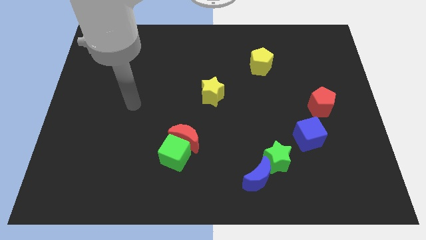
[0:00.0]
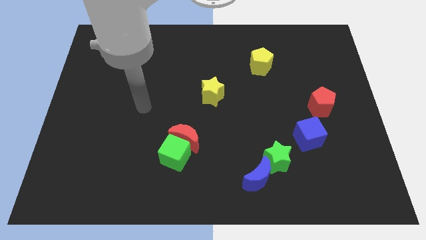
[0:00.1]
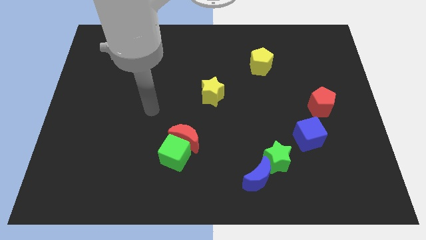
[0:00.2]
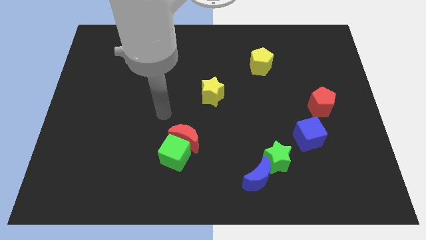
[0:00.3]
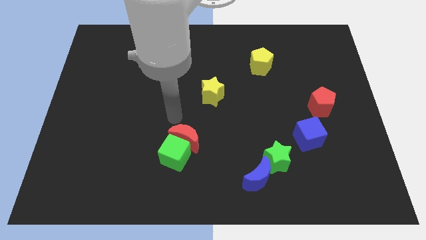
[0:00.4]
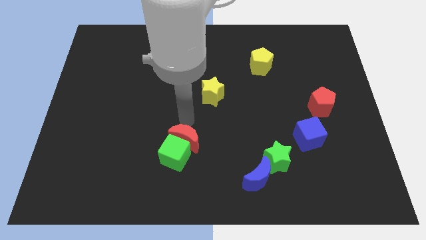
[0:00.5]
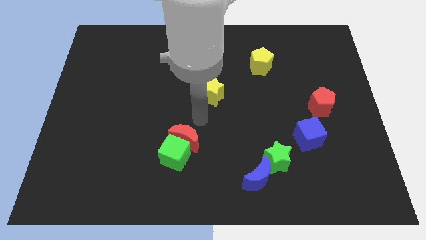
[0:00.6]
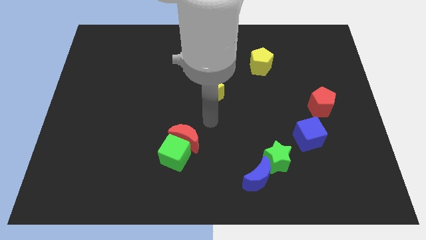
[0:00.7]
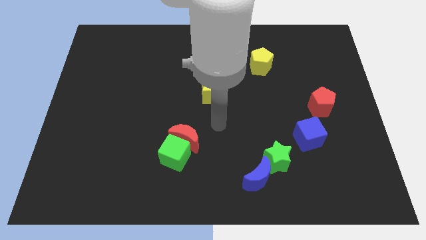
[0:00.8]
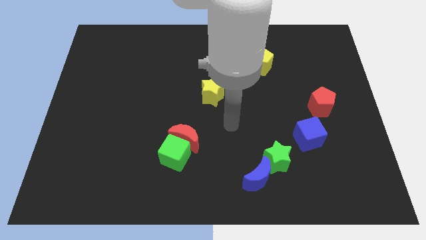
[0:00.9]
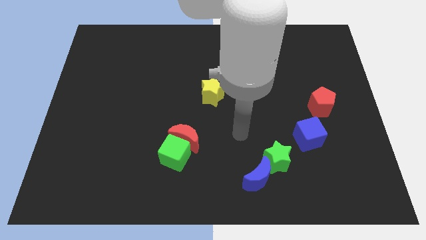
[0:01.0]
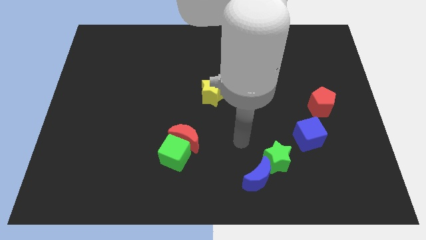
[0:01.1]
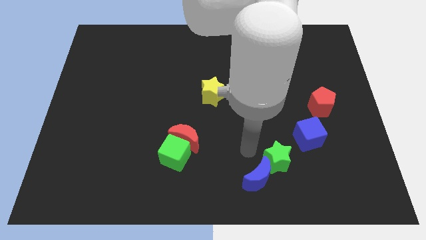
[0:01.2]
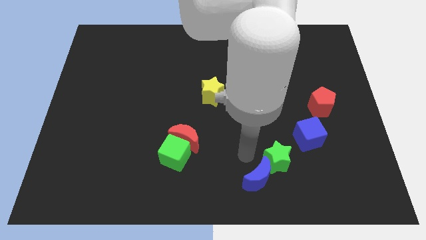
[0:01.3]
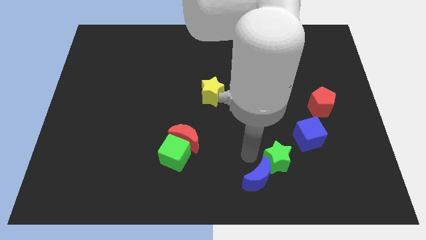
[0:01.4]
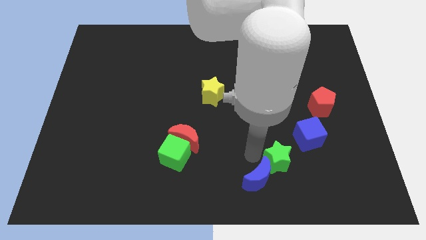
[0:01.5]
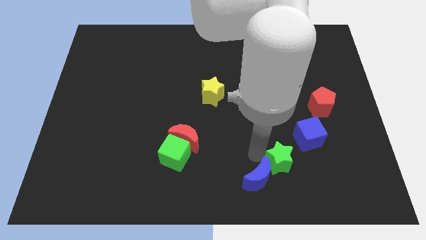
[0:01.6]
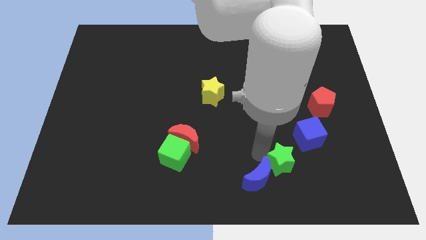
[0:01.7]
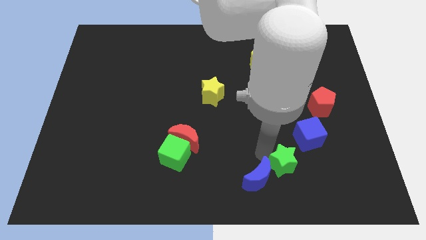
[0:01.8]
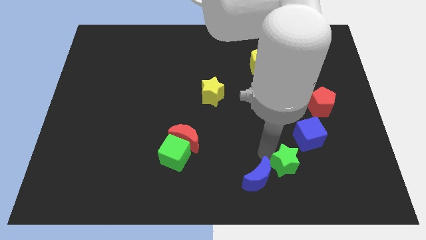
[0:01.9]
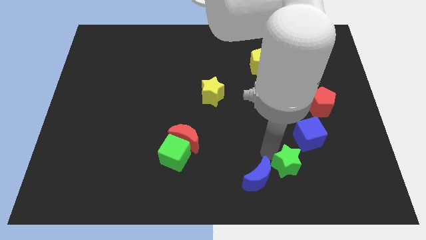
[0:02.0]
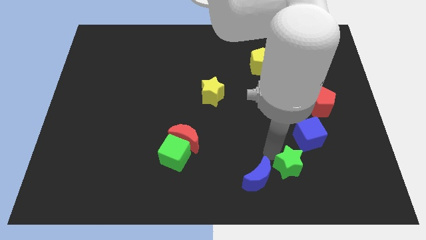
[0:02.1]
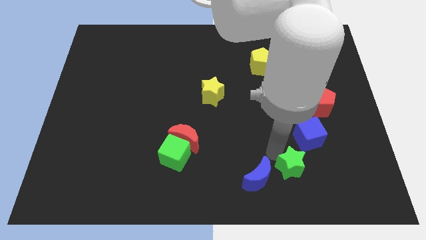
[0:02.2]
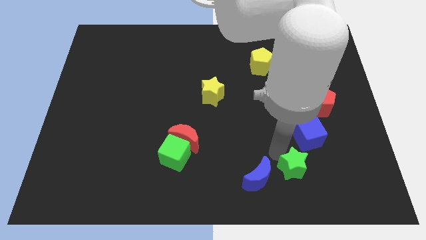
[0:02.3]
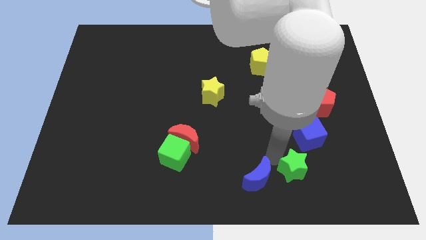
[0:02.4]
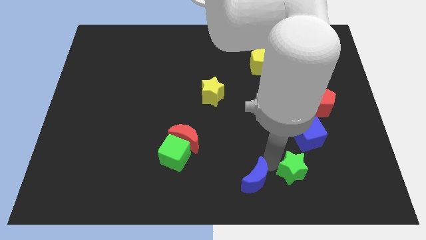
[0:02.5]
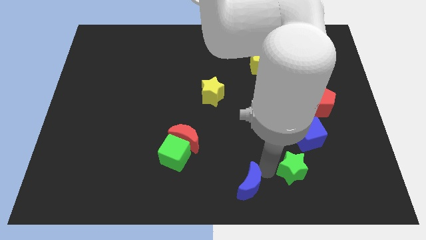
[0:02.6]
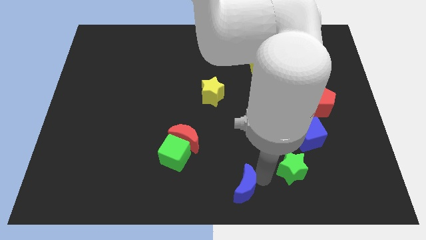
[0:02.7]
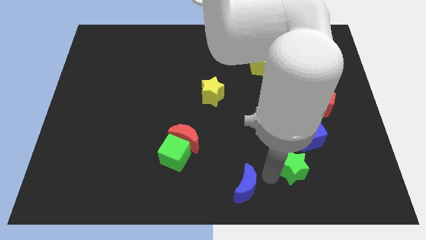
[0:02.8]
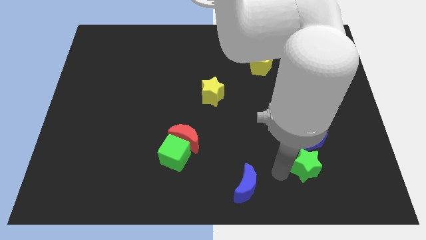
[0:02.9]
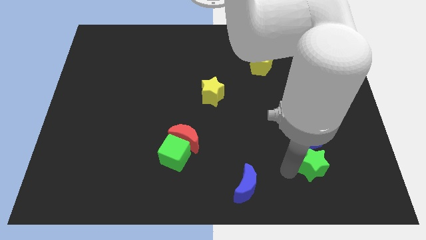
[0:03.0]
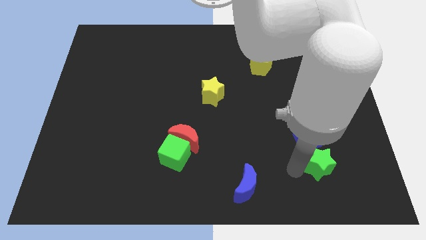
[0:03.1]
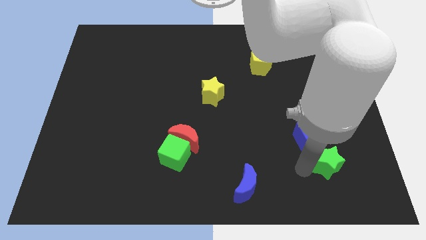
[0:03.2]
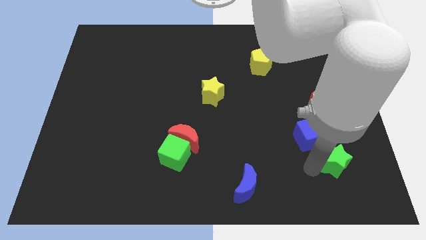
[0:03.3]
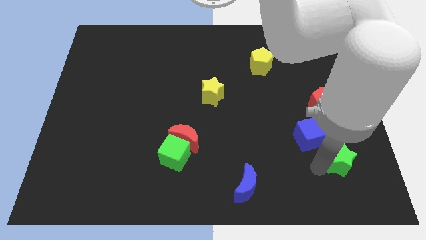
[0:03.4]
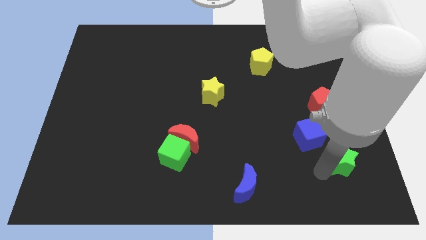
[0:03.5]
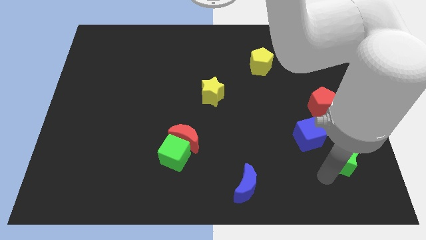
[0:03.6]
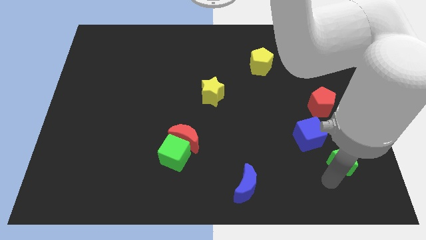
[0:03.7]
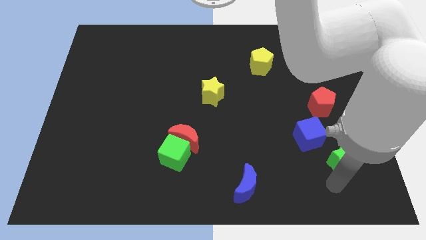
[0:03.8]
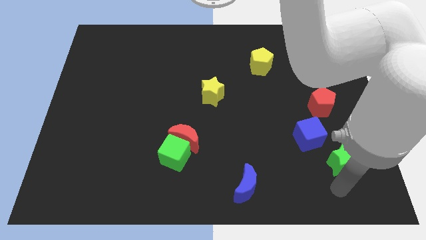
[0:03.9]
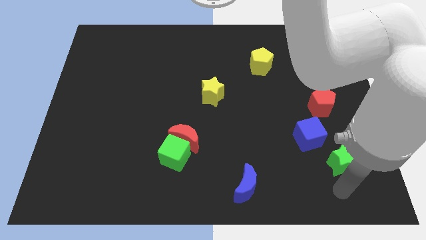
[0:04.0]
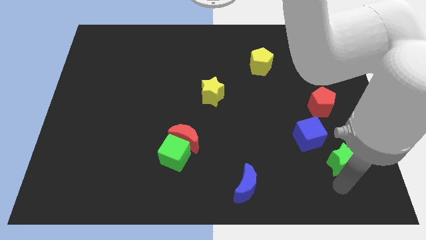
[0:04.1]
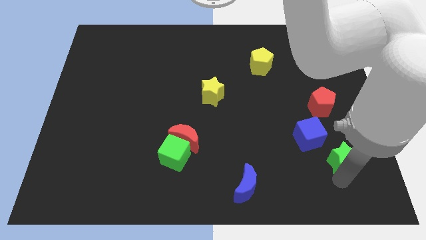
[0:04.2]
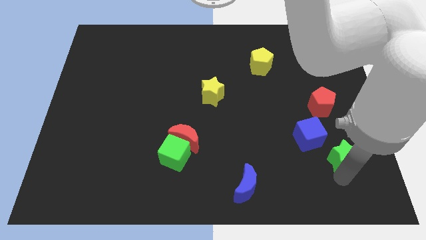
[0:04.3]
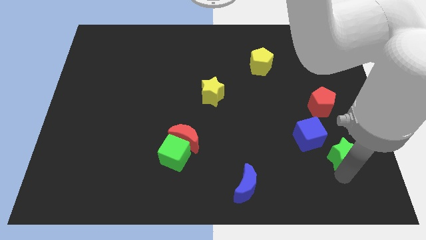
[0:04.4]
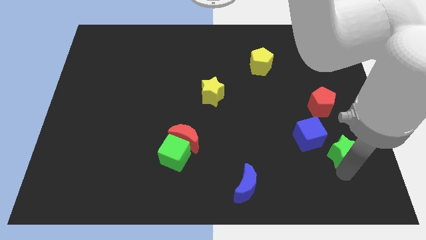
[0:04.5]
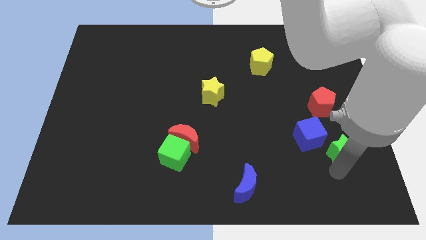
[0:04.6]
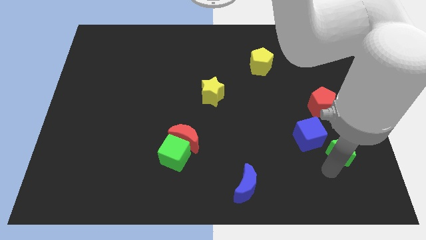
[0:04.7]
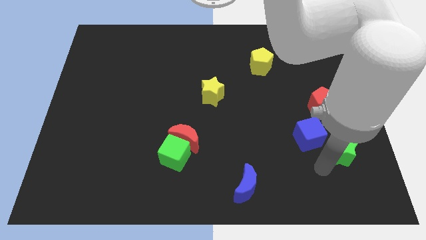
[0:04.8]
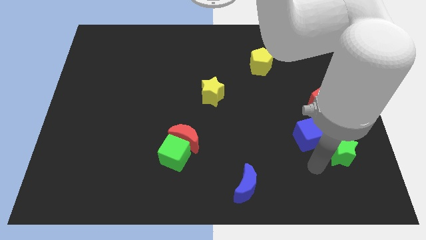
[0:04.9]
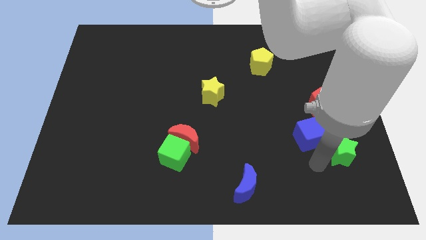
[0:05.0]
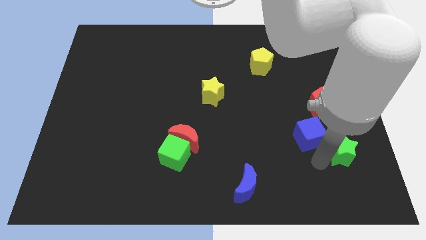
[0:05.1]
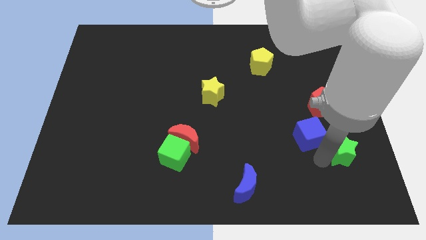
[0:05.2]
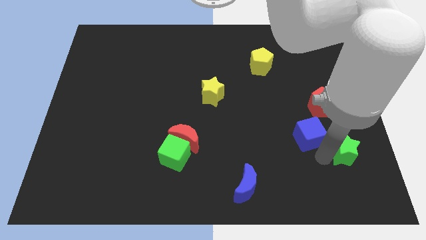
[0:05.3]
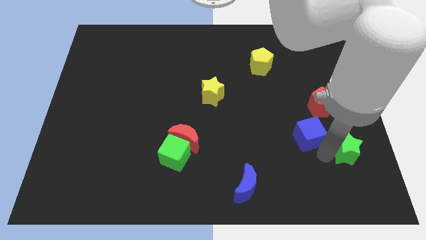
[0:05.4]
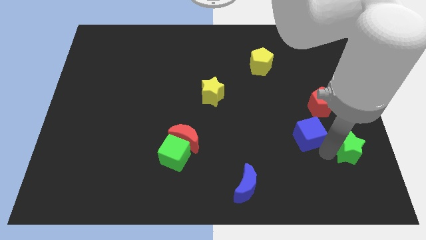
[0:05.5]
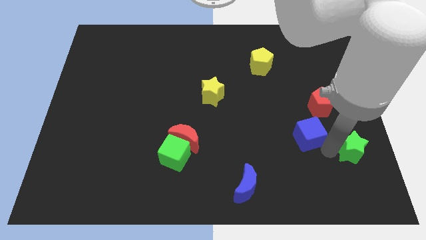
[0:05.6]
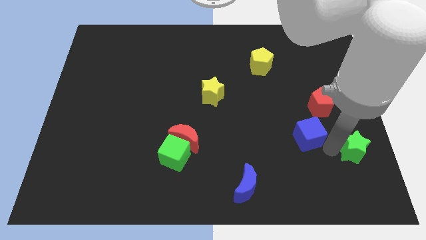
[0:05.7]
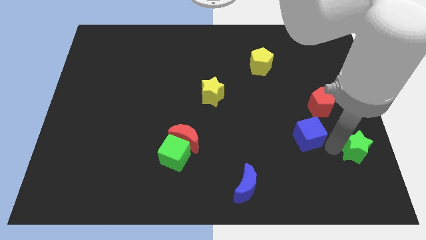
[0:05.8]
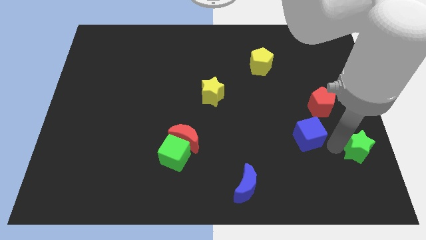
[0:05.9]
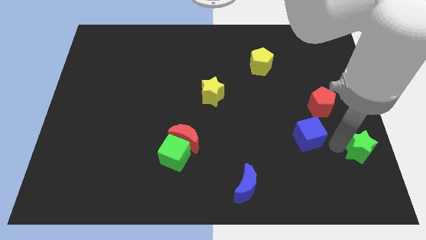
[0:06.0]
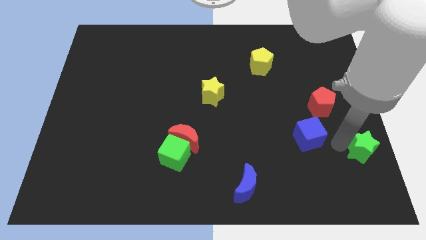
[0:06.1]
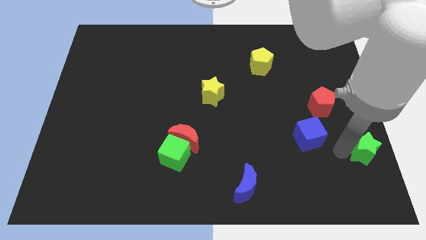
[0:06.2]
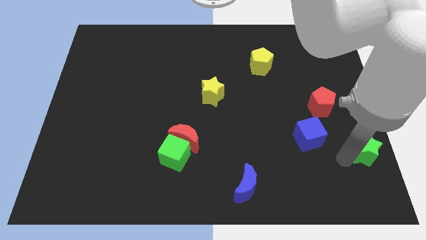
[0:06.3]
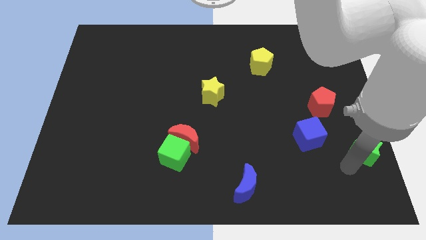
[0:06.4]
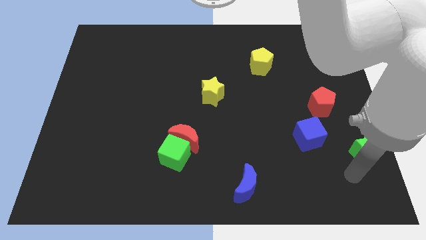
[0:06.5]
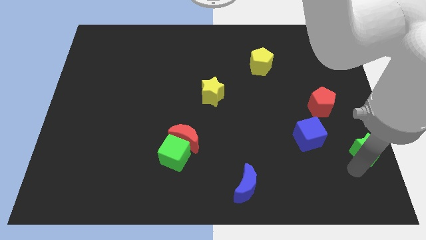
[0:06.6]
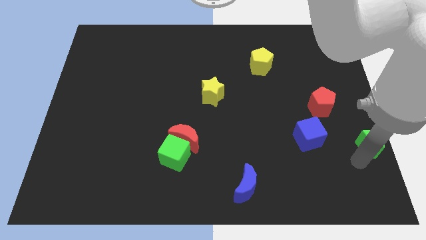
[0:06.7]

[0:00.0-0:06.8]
move the green star to the right side of the board
